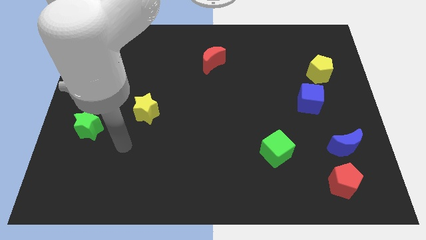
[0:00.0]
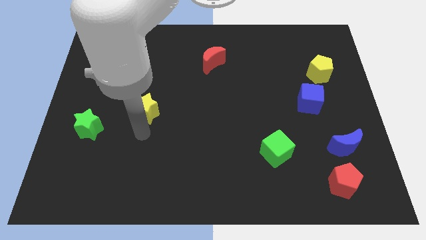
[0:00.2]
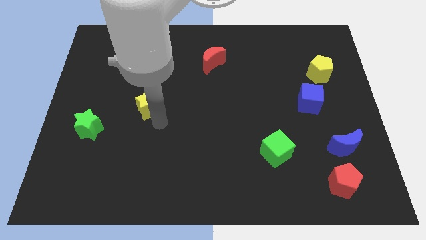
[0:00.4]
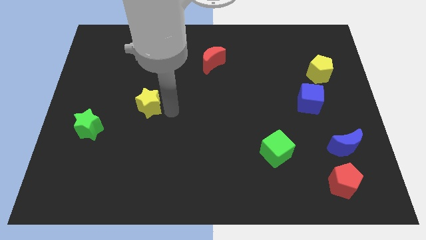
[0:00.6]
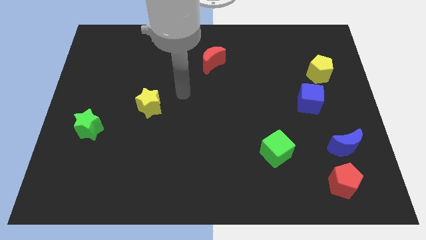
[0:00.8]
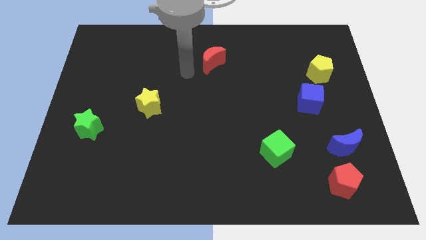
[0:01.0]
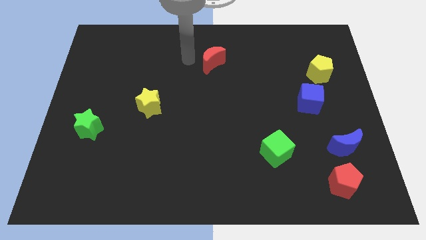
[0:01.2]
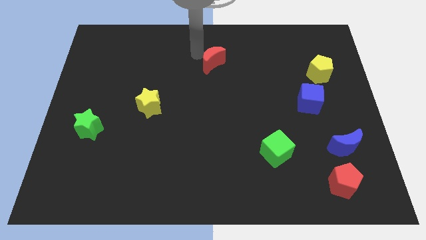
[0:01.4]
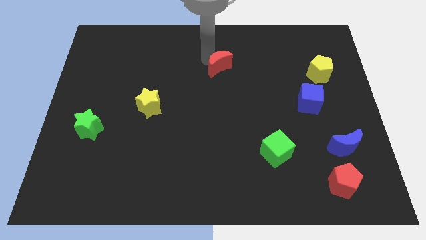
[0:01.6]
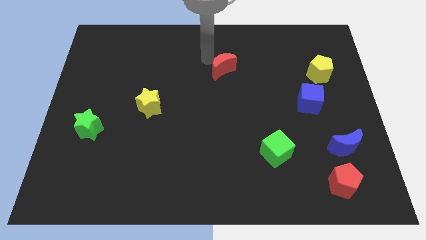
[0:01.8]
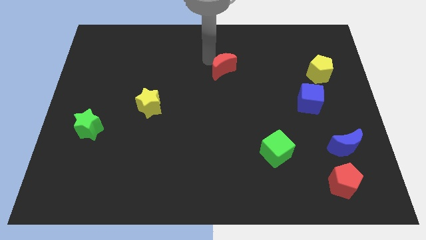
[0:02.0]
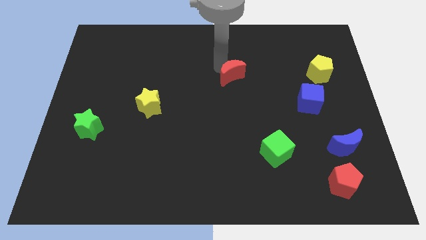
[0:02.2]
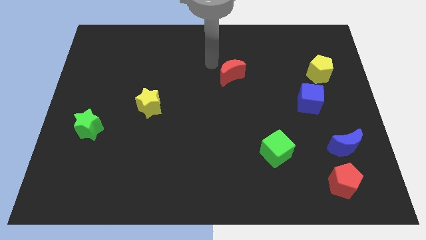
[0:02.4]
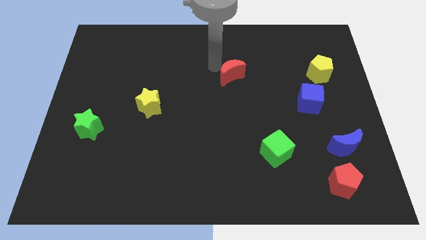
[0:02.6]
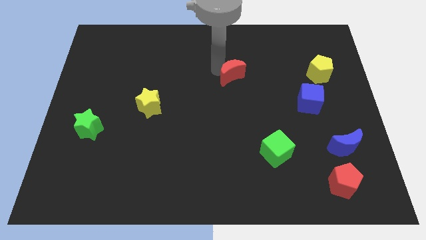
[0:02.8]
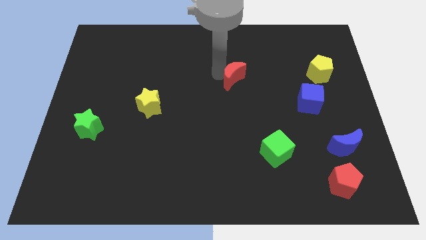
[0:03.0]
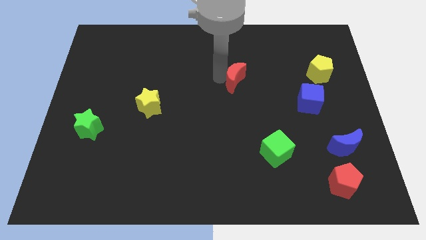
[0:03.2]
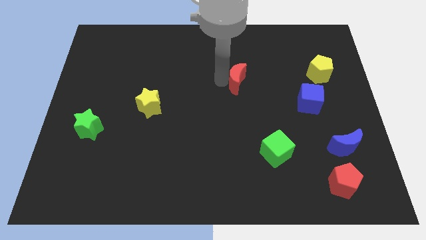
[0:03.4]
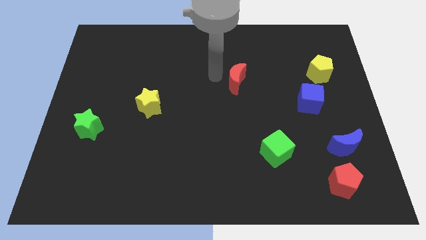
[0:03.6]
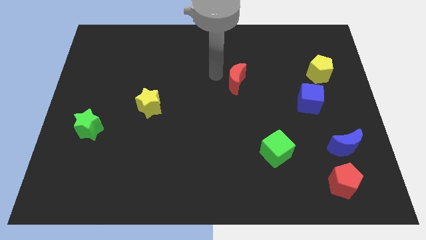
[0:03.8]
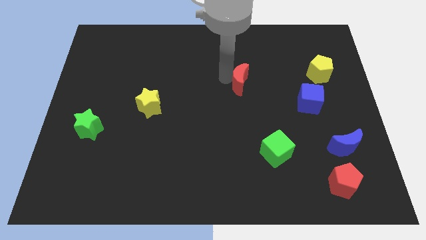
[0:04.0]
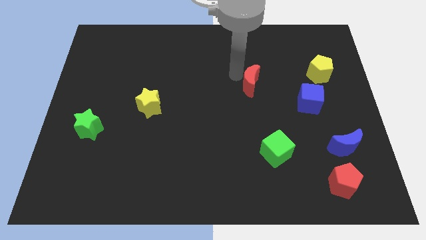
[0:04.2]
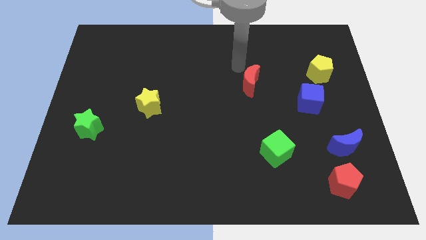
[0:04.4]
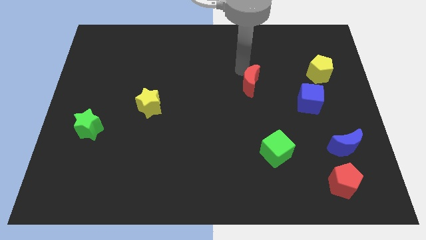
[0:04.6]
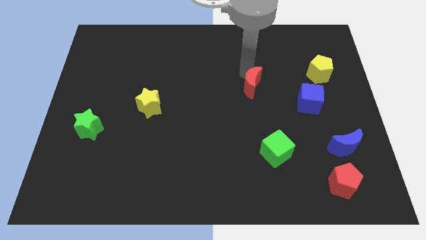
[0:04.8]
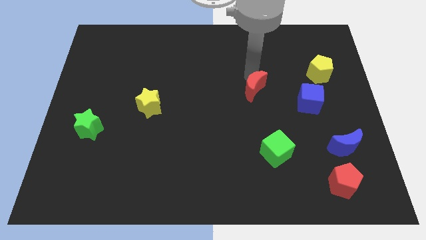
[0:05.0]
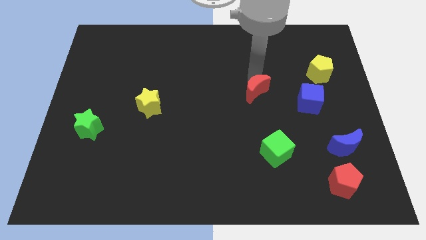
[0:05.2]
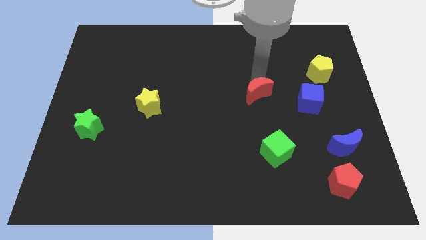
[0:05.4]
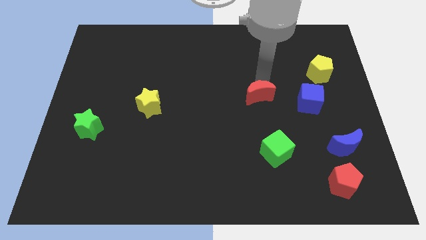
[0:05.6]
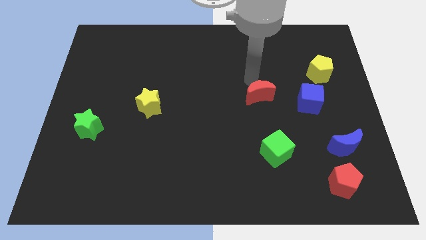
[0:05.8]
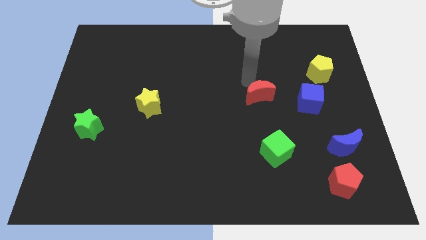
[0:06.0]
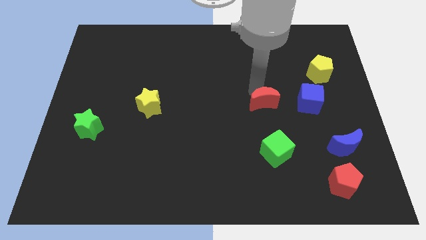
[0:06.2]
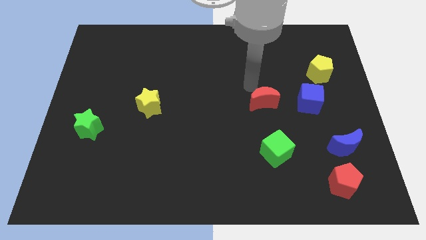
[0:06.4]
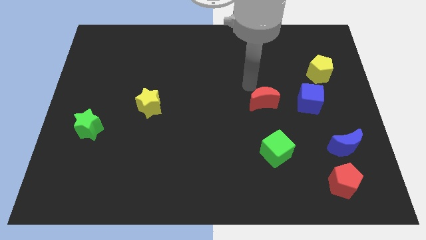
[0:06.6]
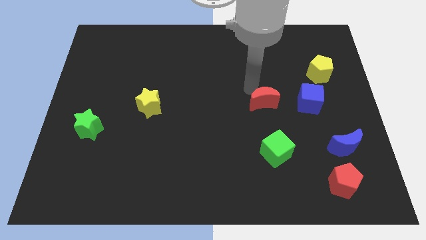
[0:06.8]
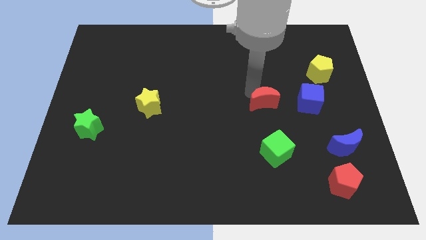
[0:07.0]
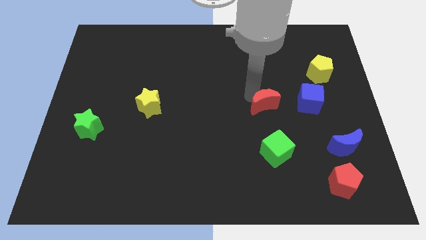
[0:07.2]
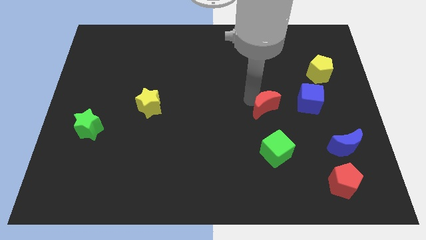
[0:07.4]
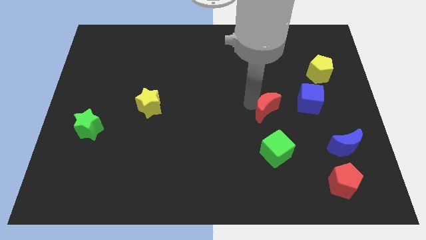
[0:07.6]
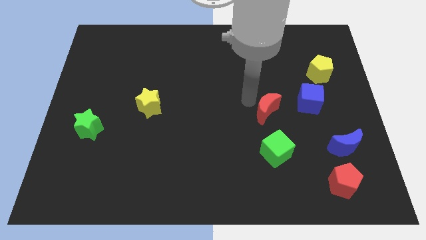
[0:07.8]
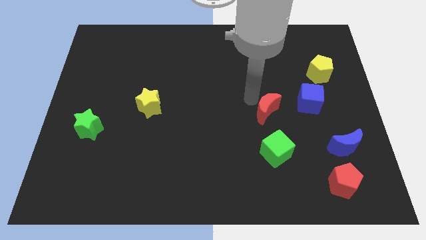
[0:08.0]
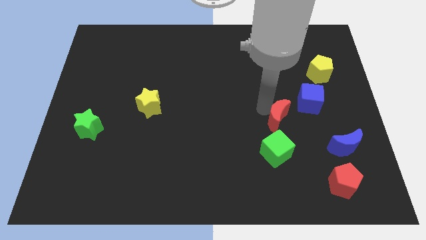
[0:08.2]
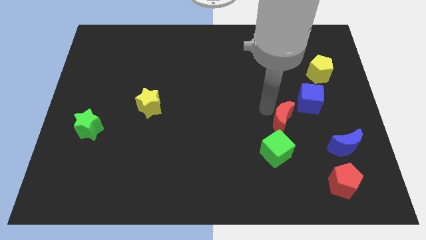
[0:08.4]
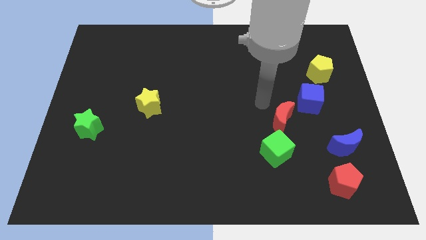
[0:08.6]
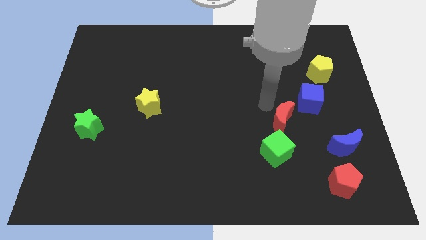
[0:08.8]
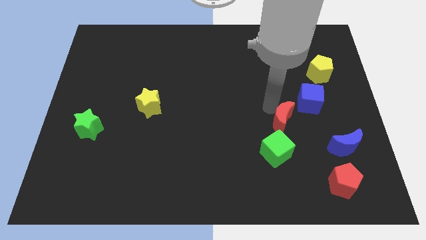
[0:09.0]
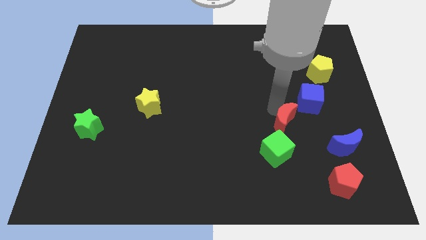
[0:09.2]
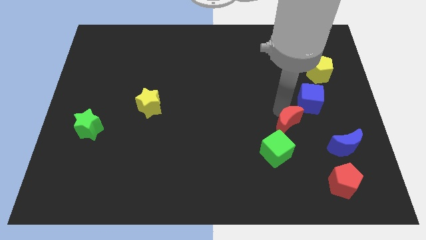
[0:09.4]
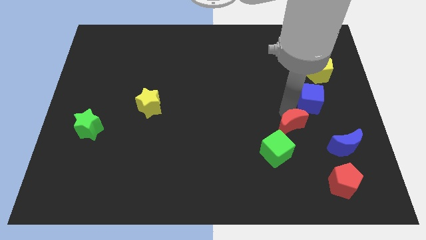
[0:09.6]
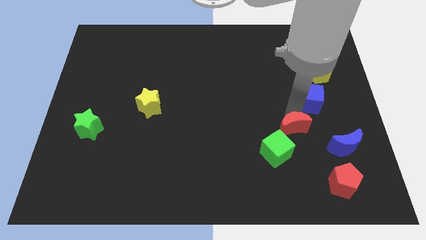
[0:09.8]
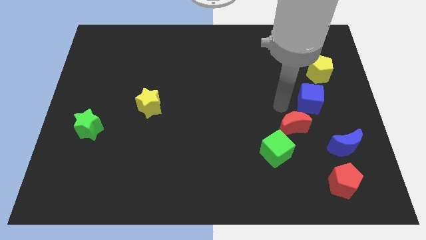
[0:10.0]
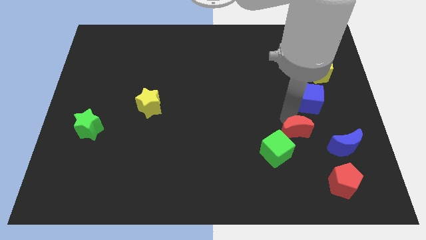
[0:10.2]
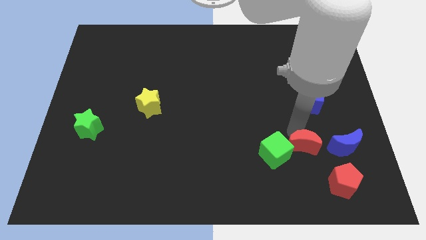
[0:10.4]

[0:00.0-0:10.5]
put the red moon to the top left side of the red pentagon

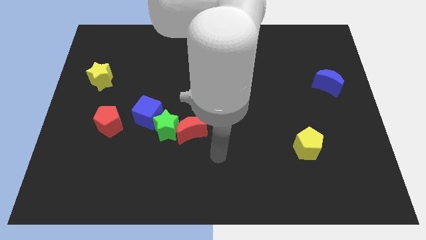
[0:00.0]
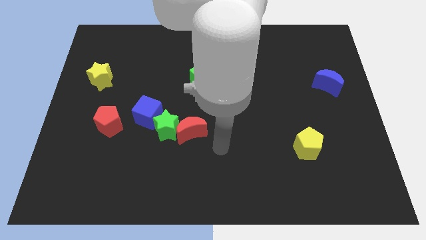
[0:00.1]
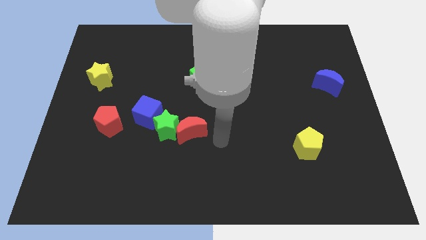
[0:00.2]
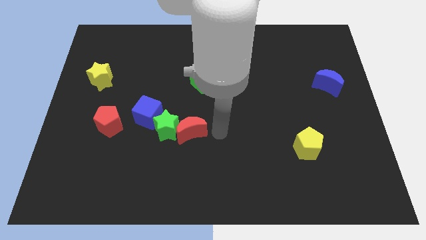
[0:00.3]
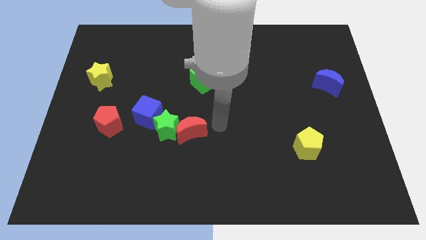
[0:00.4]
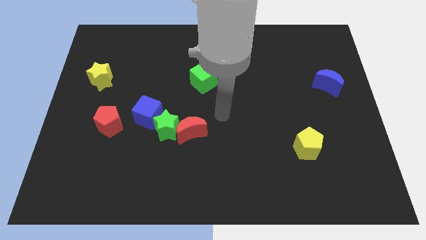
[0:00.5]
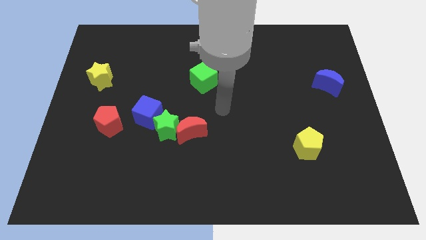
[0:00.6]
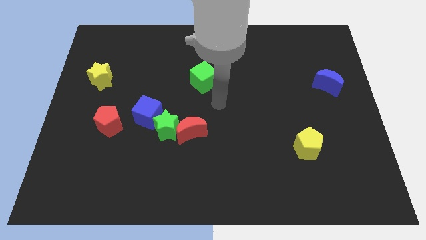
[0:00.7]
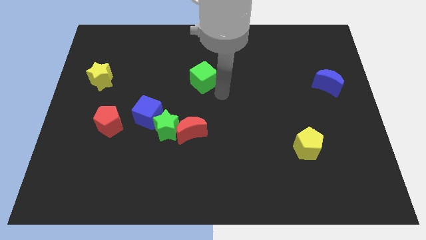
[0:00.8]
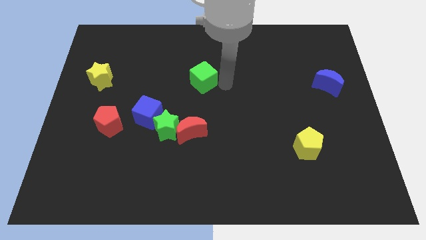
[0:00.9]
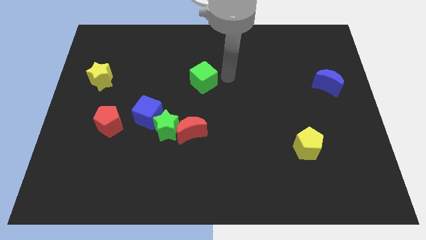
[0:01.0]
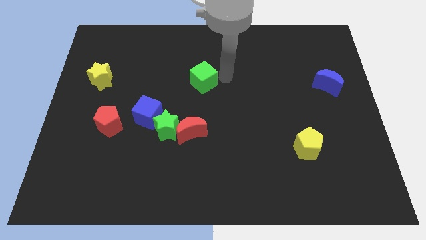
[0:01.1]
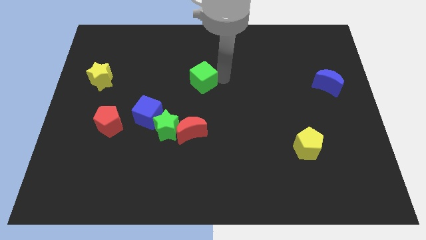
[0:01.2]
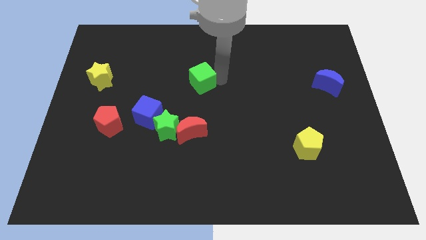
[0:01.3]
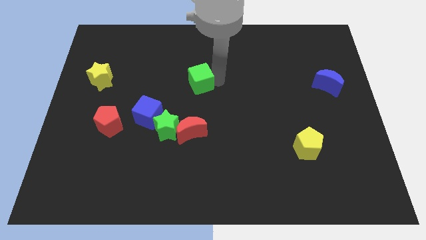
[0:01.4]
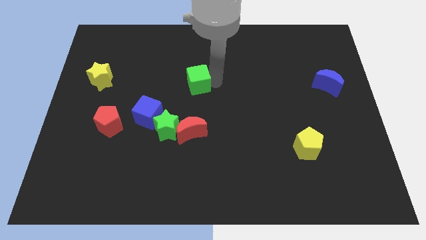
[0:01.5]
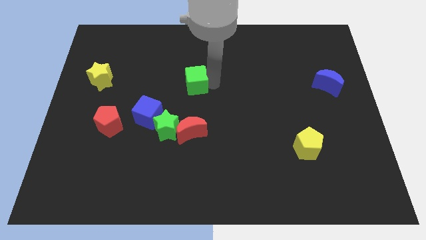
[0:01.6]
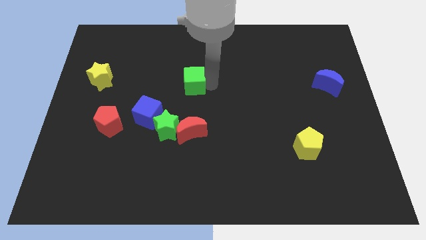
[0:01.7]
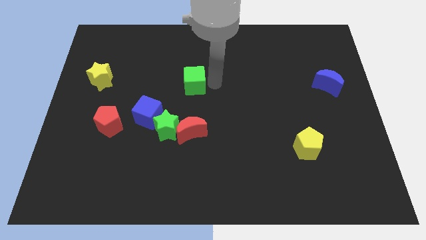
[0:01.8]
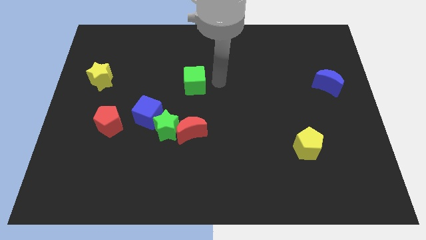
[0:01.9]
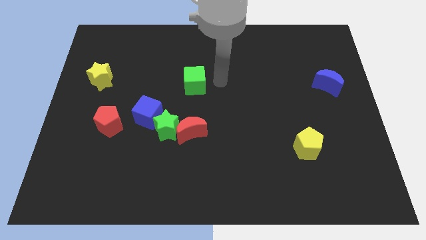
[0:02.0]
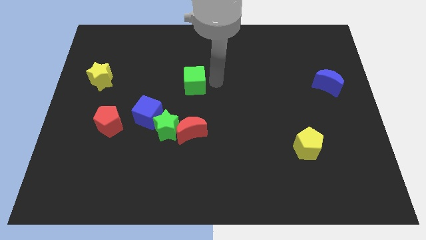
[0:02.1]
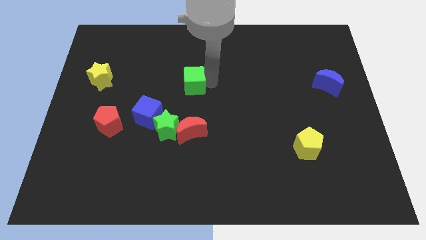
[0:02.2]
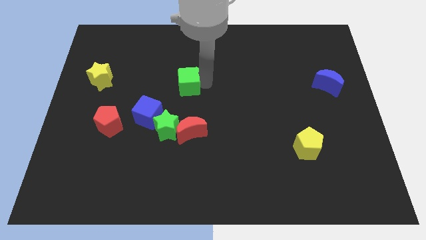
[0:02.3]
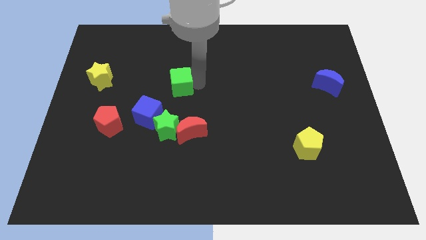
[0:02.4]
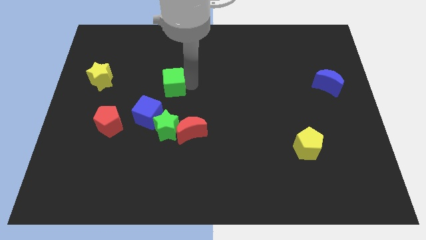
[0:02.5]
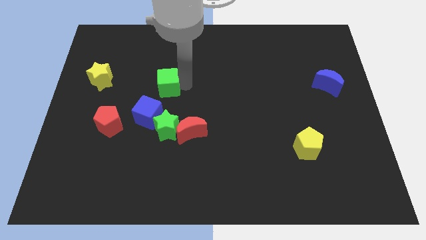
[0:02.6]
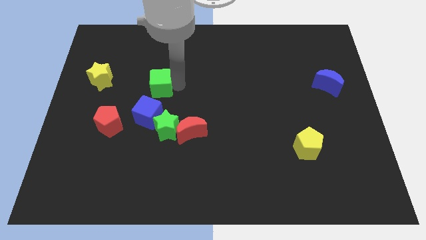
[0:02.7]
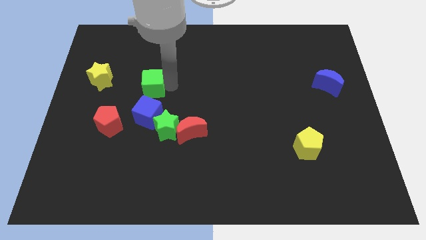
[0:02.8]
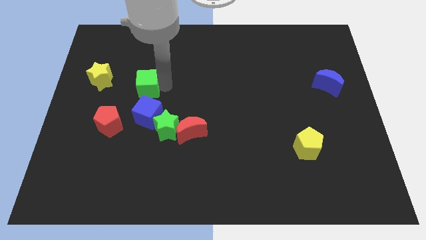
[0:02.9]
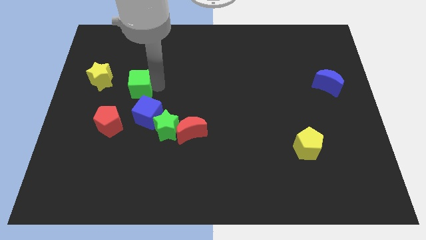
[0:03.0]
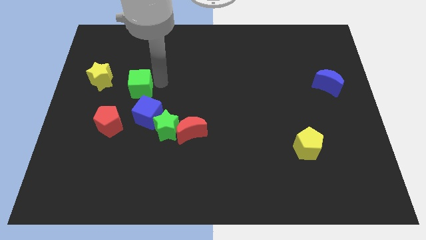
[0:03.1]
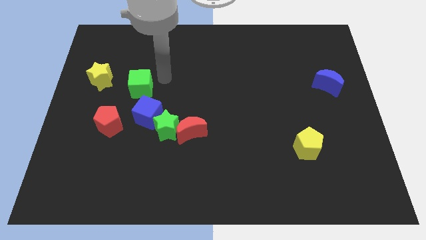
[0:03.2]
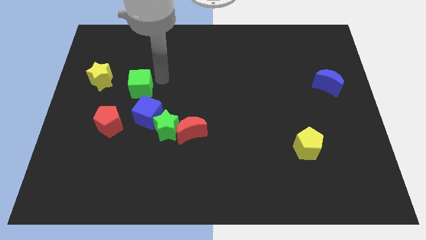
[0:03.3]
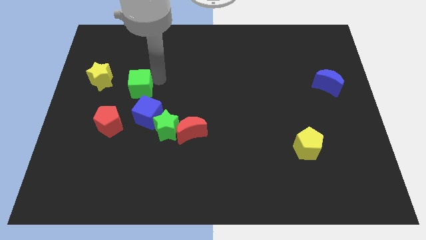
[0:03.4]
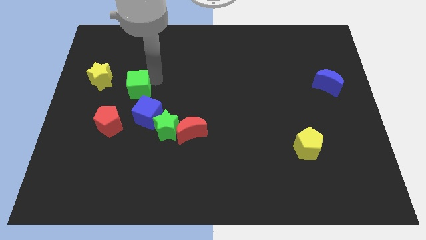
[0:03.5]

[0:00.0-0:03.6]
put the green cube diagonally down and to the right of the yellow star
